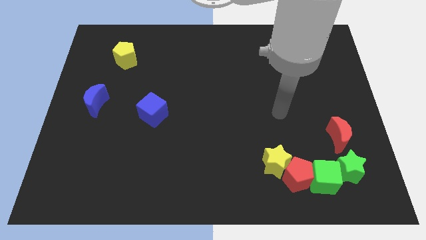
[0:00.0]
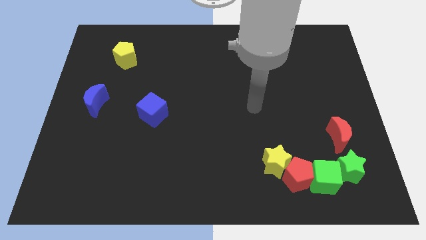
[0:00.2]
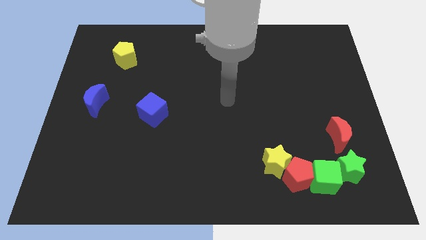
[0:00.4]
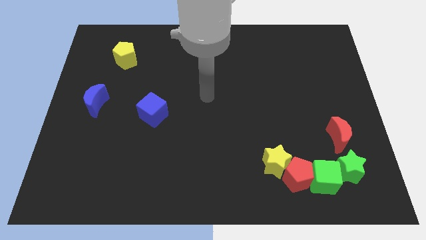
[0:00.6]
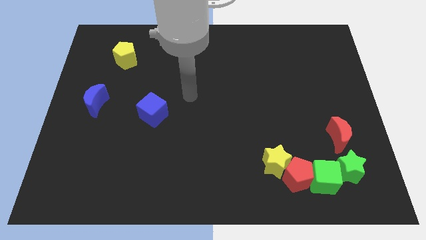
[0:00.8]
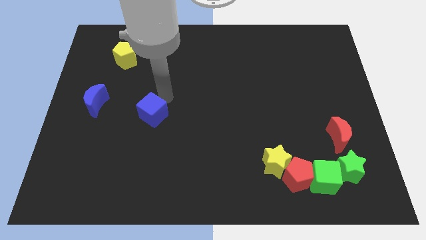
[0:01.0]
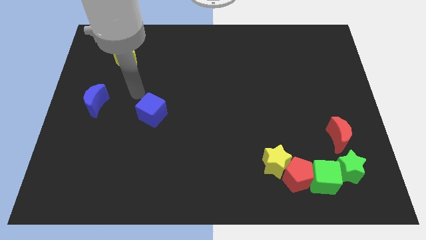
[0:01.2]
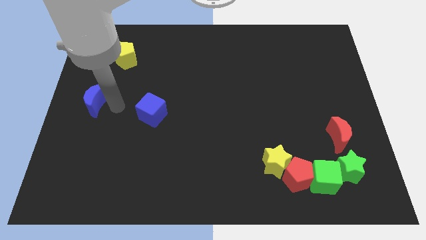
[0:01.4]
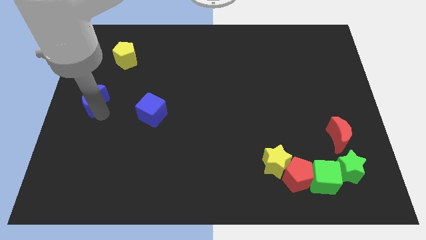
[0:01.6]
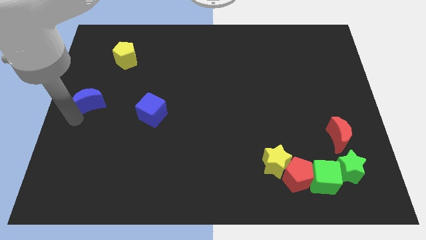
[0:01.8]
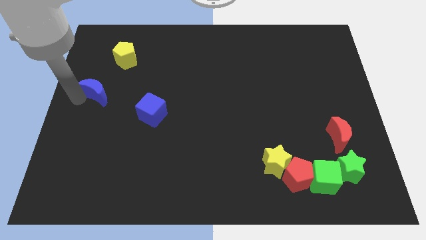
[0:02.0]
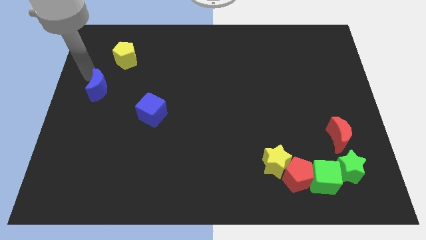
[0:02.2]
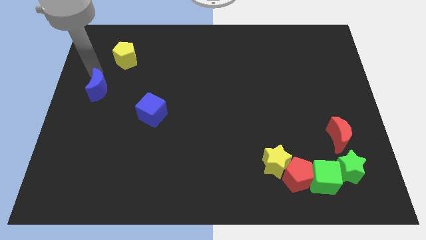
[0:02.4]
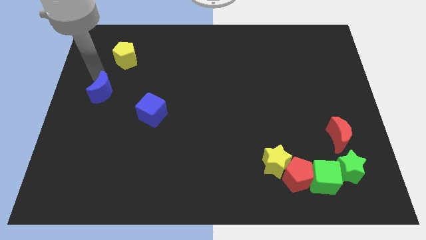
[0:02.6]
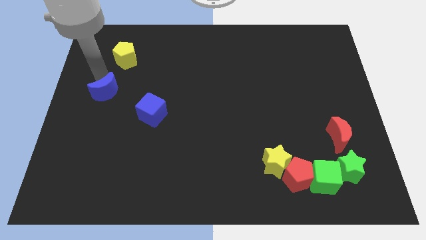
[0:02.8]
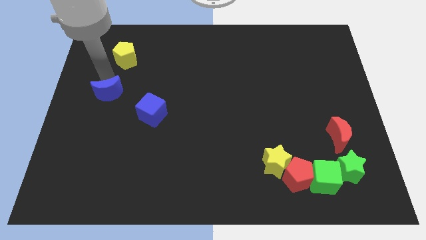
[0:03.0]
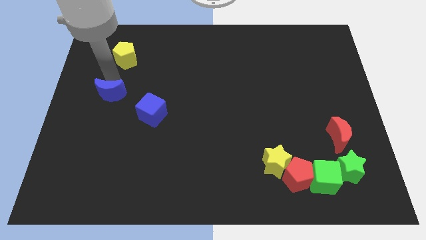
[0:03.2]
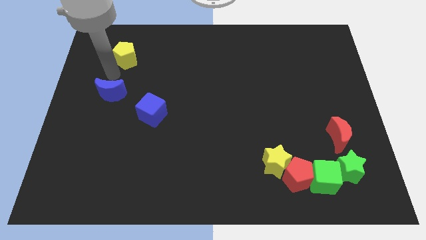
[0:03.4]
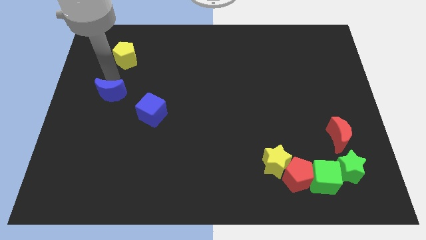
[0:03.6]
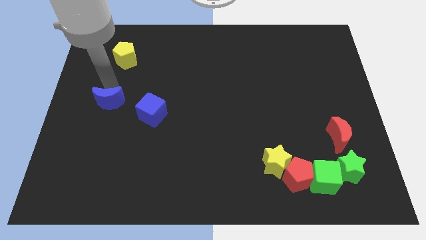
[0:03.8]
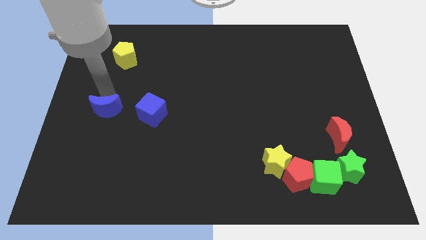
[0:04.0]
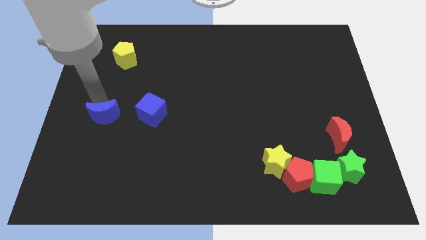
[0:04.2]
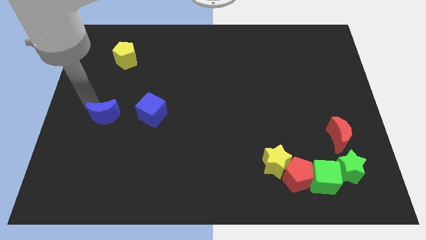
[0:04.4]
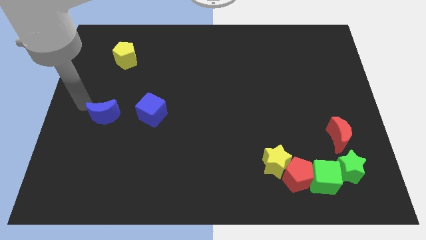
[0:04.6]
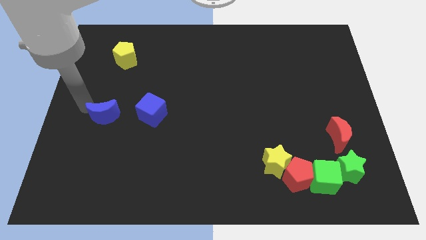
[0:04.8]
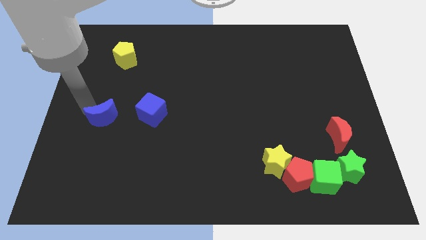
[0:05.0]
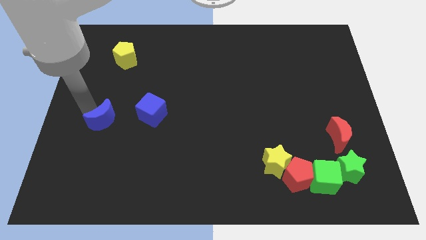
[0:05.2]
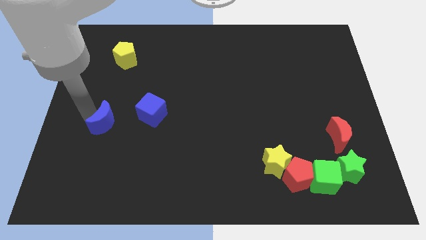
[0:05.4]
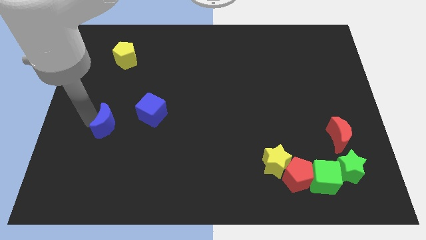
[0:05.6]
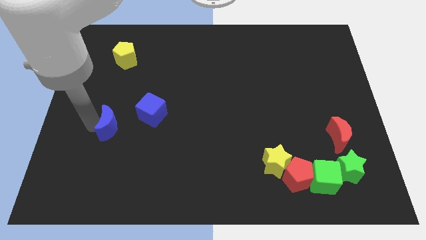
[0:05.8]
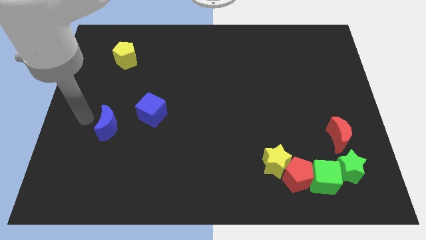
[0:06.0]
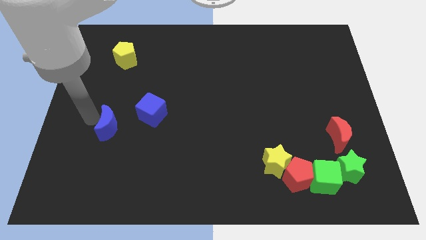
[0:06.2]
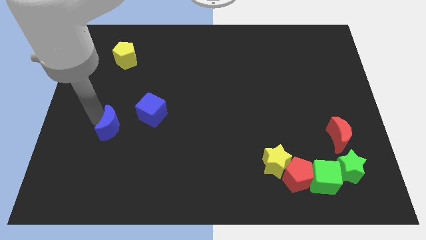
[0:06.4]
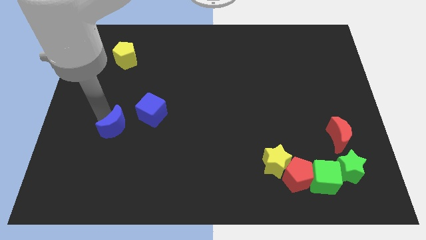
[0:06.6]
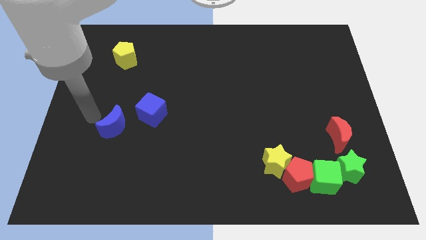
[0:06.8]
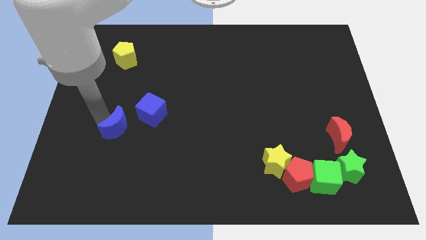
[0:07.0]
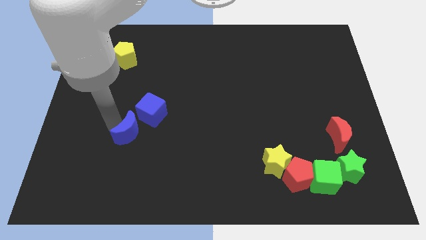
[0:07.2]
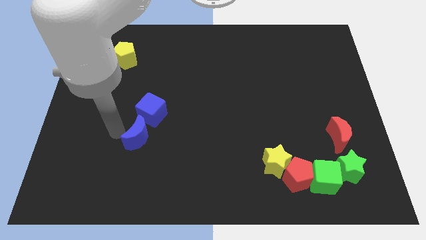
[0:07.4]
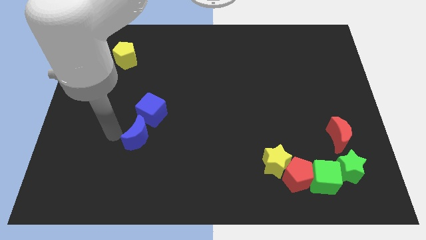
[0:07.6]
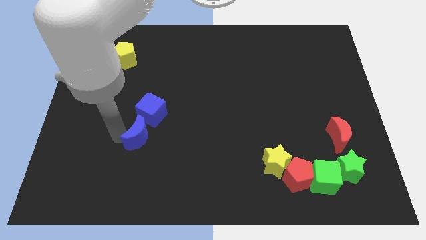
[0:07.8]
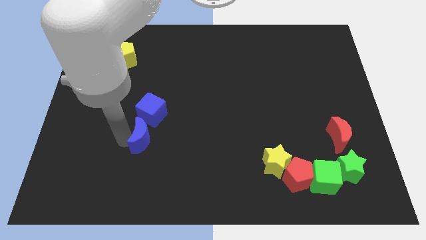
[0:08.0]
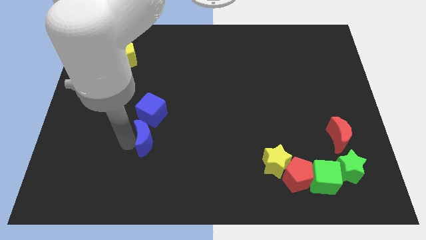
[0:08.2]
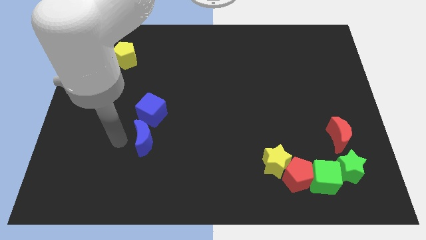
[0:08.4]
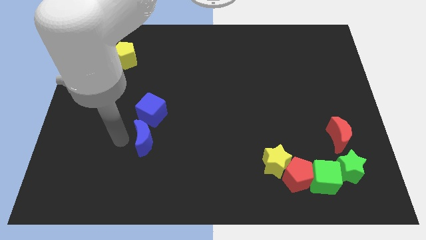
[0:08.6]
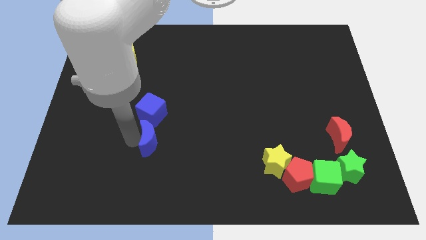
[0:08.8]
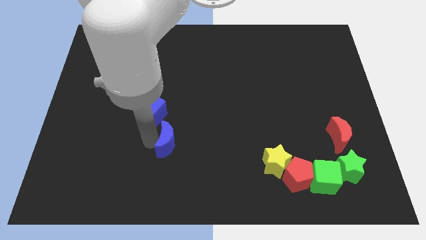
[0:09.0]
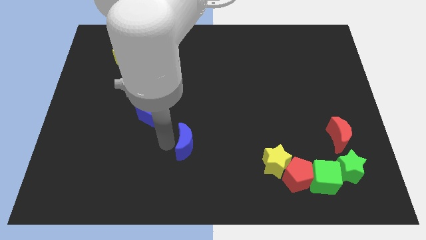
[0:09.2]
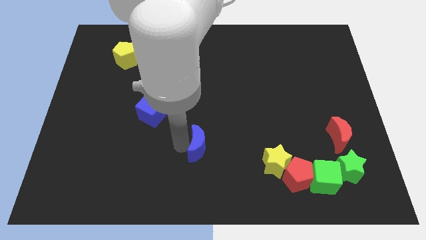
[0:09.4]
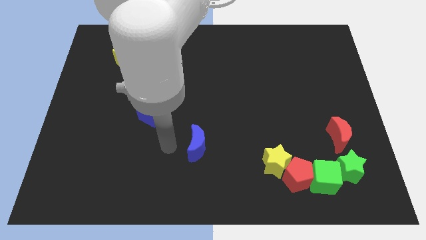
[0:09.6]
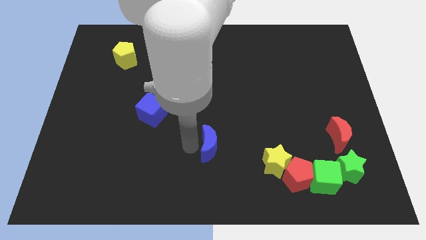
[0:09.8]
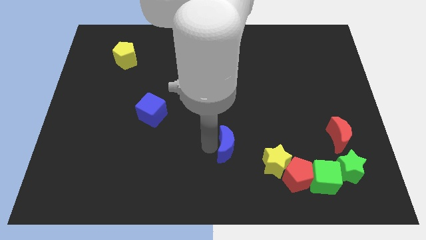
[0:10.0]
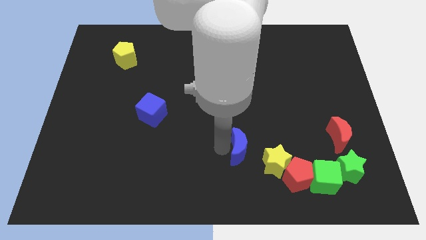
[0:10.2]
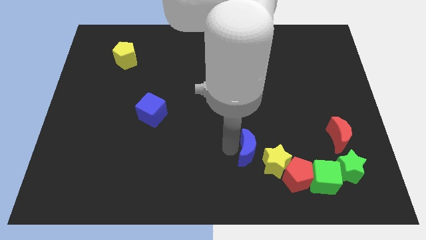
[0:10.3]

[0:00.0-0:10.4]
slide the blue moon to the top left side of the red pentagon

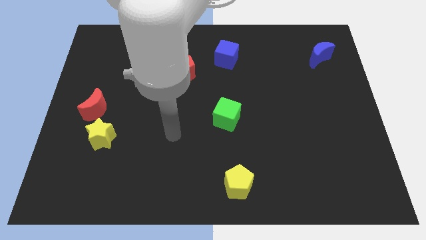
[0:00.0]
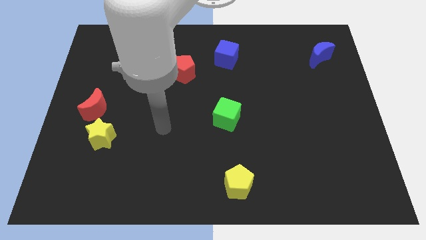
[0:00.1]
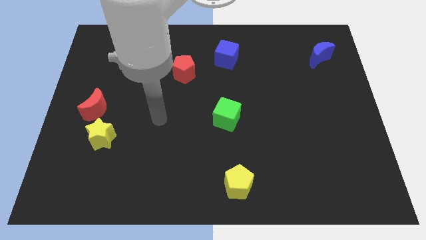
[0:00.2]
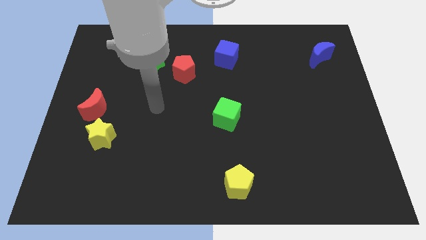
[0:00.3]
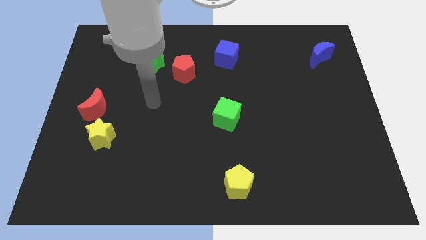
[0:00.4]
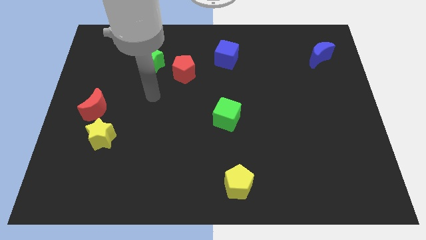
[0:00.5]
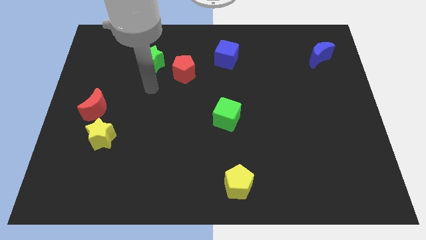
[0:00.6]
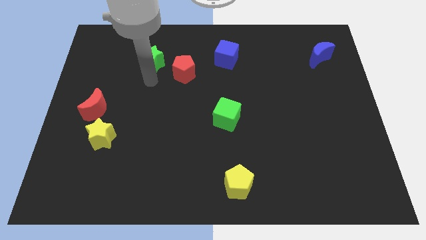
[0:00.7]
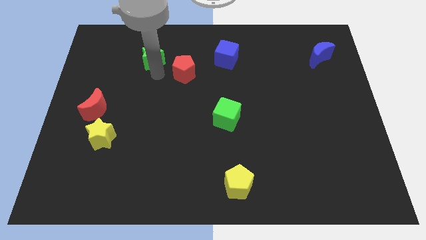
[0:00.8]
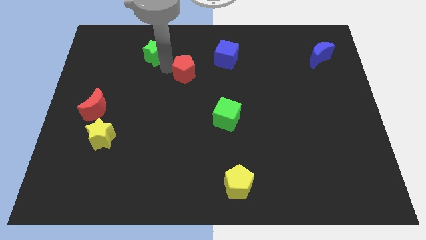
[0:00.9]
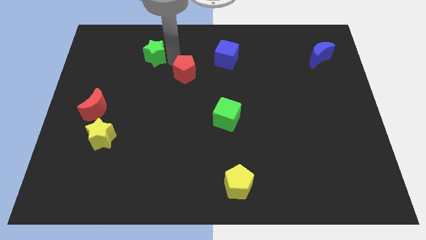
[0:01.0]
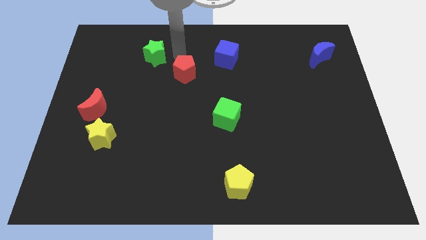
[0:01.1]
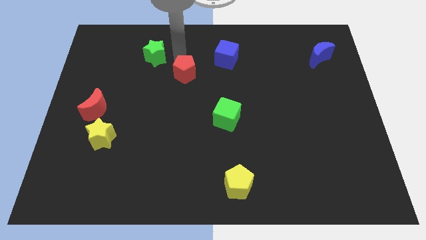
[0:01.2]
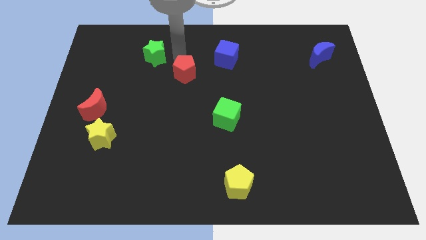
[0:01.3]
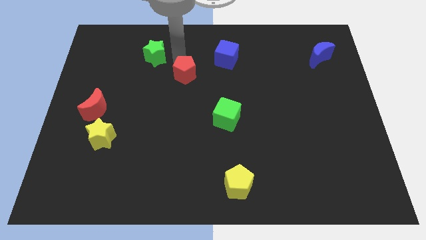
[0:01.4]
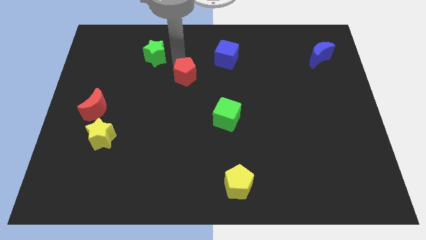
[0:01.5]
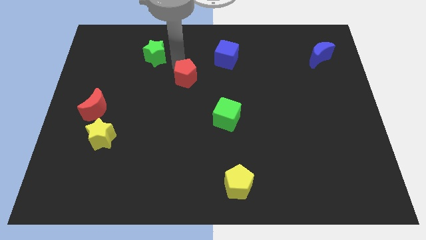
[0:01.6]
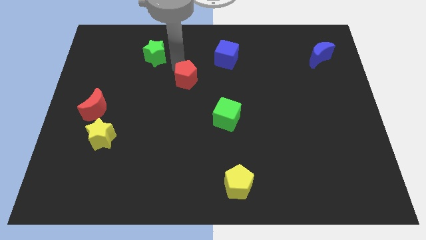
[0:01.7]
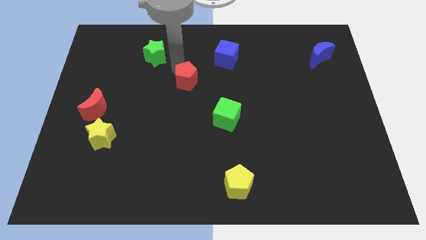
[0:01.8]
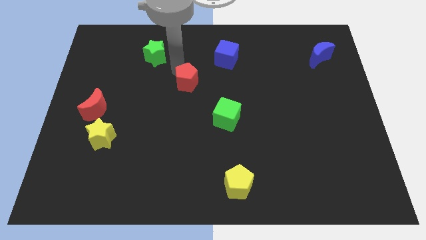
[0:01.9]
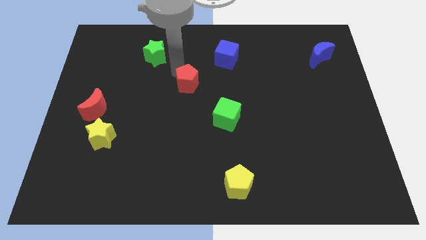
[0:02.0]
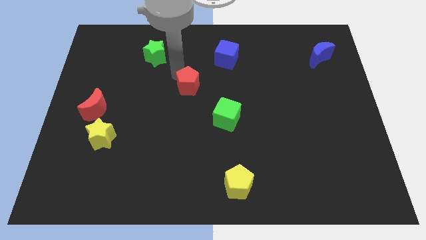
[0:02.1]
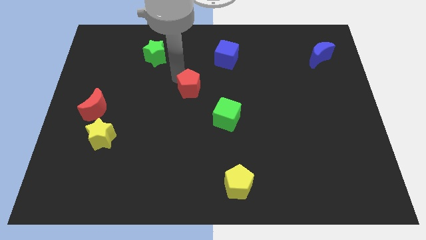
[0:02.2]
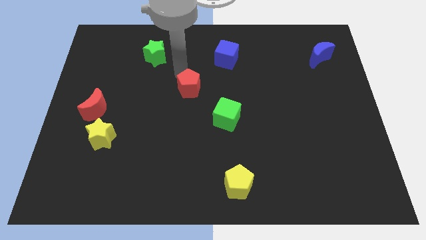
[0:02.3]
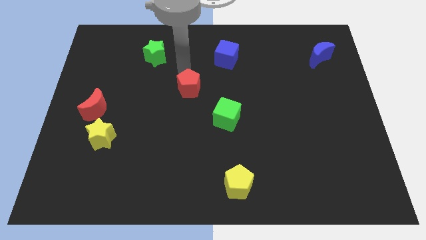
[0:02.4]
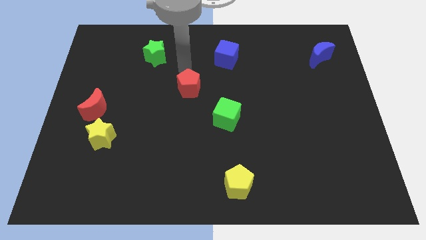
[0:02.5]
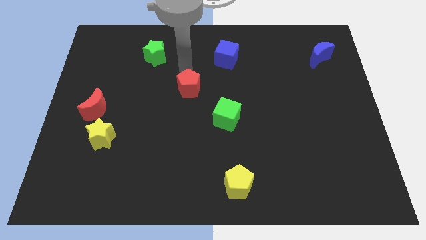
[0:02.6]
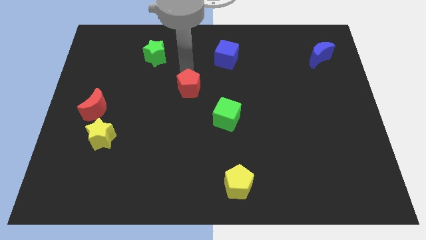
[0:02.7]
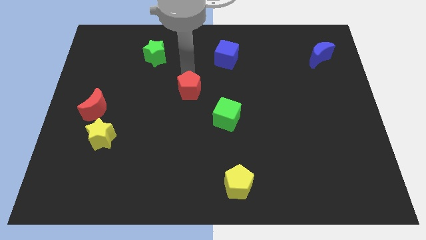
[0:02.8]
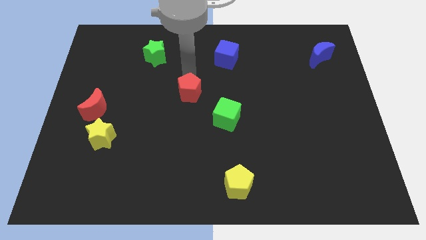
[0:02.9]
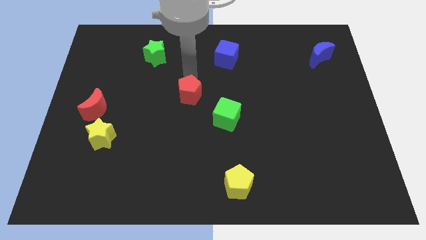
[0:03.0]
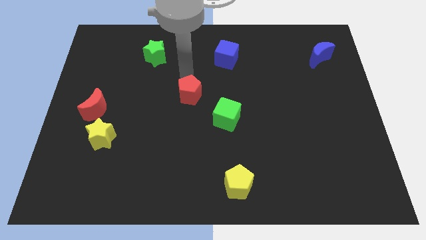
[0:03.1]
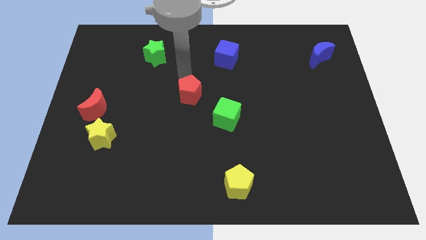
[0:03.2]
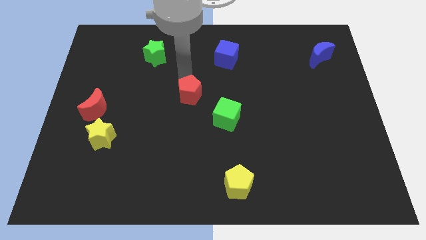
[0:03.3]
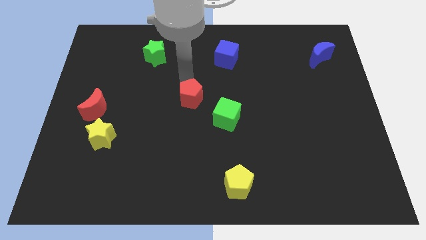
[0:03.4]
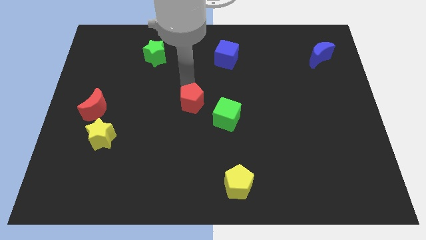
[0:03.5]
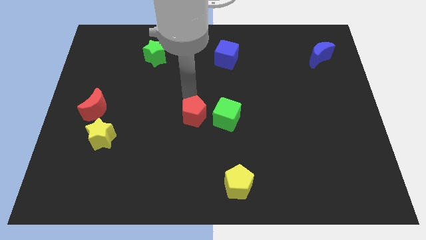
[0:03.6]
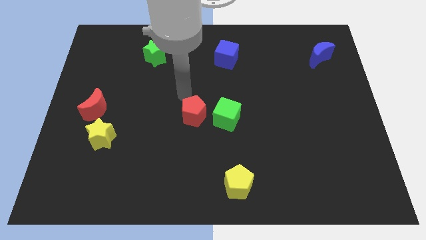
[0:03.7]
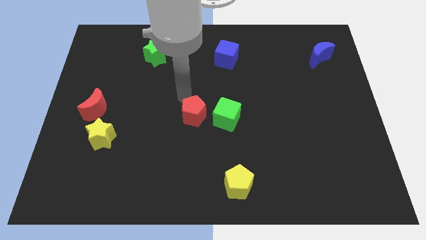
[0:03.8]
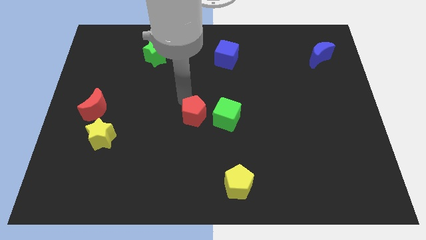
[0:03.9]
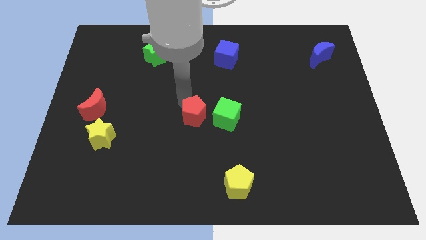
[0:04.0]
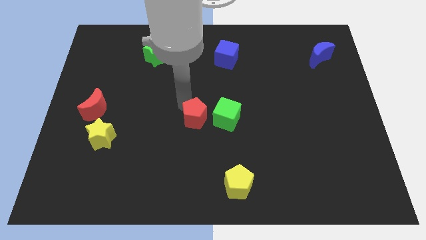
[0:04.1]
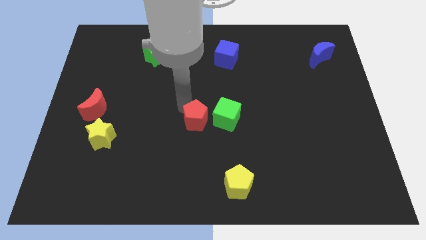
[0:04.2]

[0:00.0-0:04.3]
move the red pentagon to the bottom left side of the green cube
